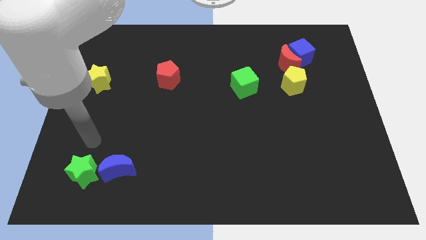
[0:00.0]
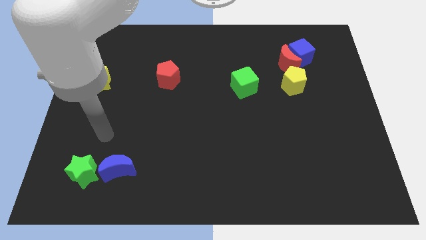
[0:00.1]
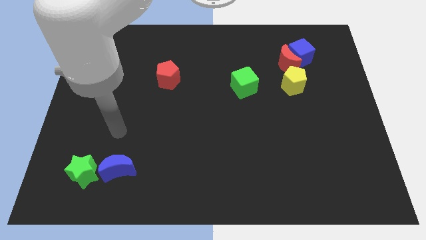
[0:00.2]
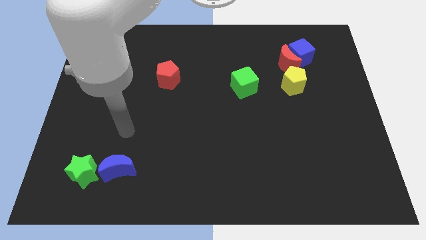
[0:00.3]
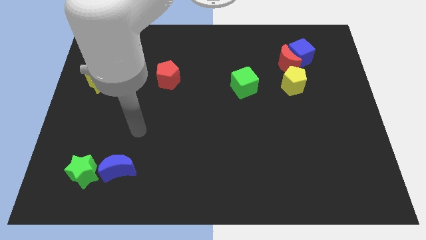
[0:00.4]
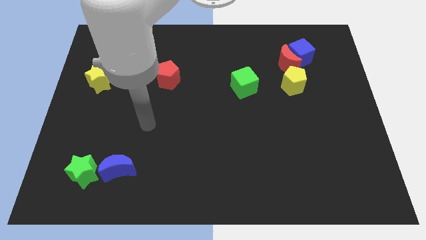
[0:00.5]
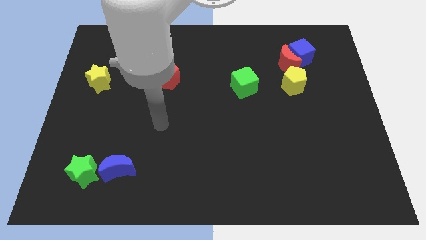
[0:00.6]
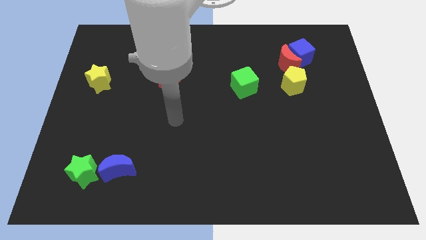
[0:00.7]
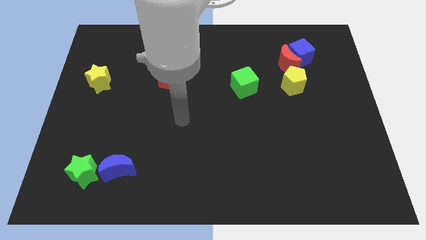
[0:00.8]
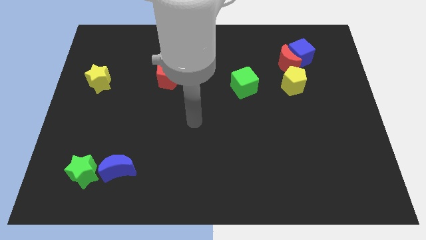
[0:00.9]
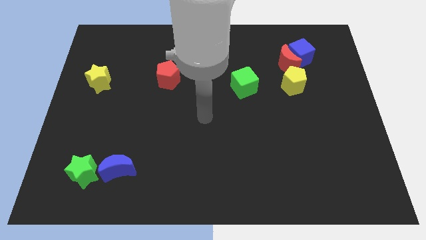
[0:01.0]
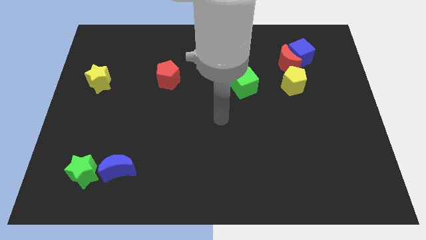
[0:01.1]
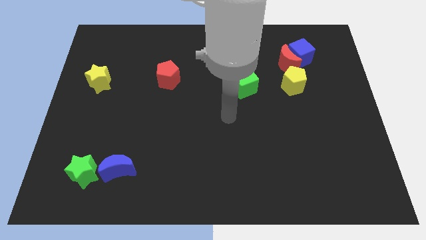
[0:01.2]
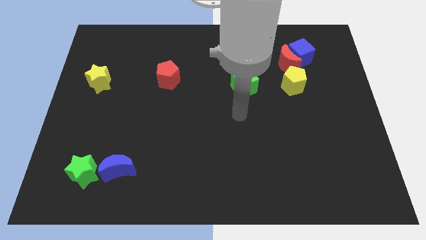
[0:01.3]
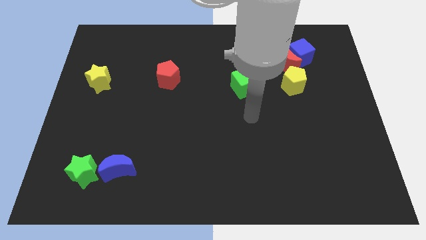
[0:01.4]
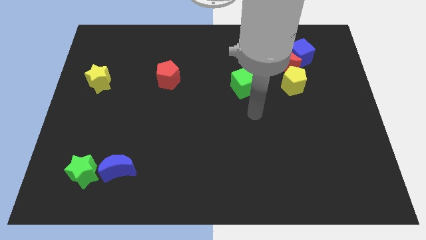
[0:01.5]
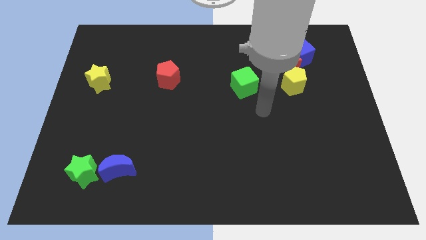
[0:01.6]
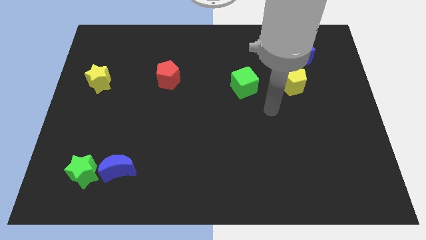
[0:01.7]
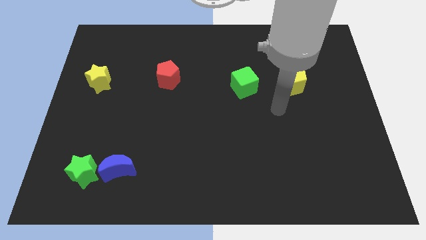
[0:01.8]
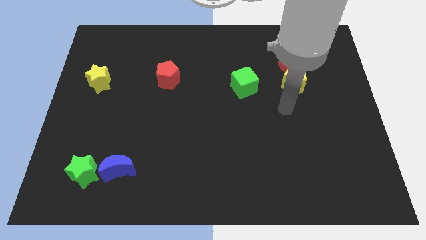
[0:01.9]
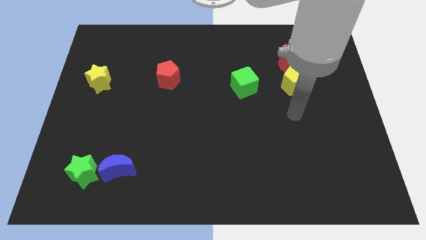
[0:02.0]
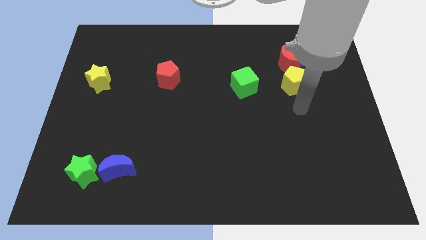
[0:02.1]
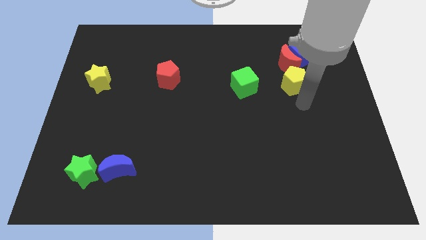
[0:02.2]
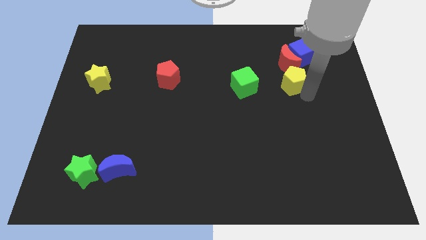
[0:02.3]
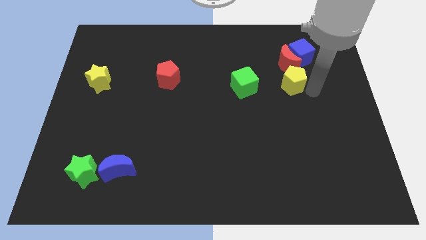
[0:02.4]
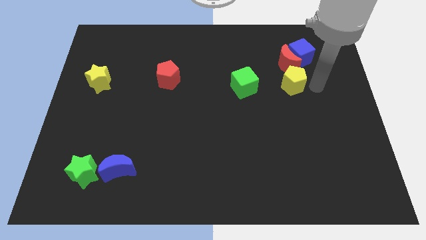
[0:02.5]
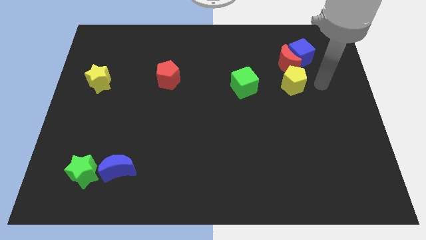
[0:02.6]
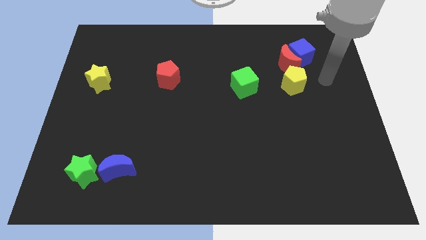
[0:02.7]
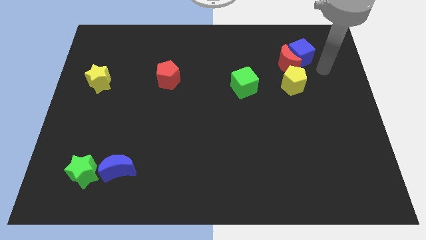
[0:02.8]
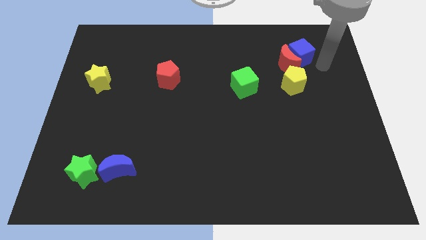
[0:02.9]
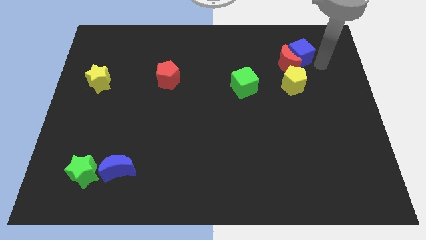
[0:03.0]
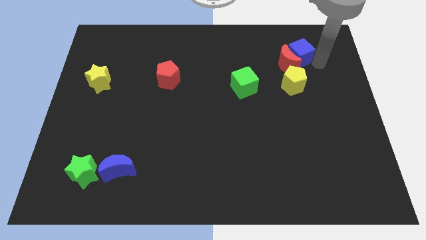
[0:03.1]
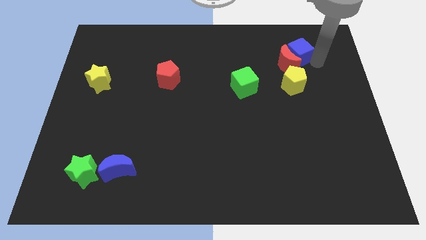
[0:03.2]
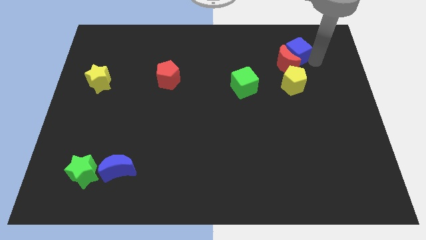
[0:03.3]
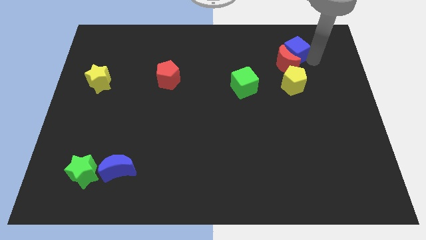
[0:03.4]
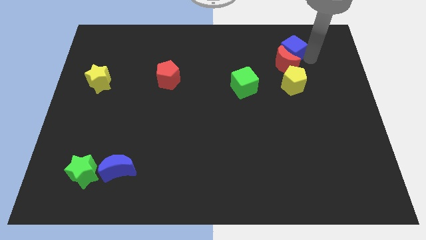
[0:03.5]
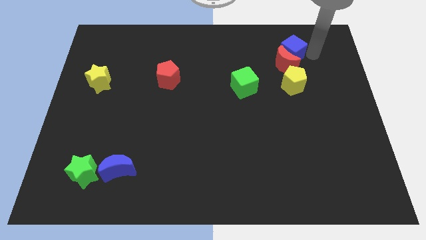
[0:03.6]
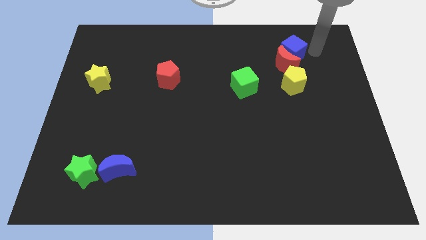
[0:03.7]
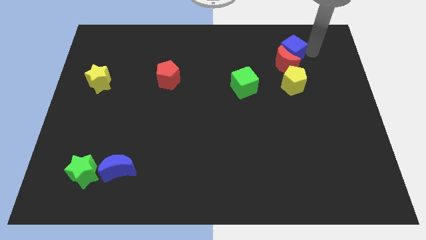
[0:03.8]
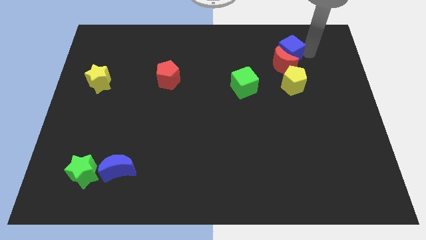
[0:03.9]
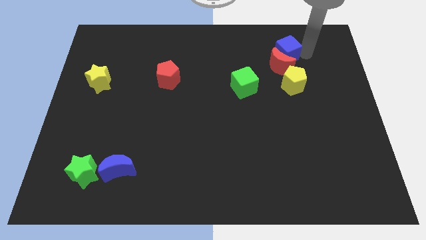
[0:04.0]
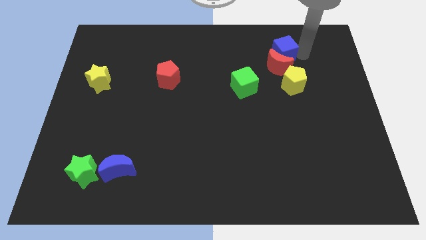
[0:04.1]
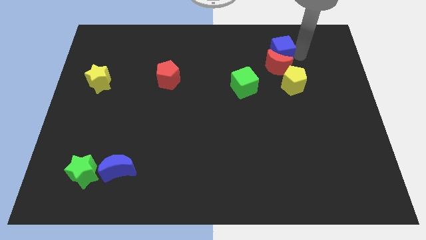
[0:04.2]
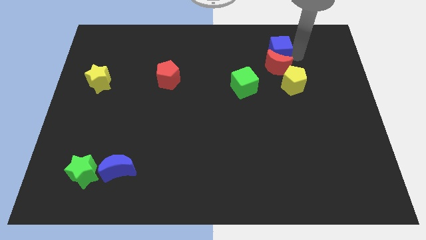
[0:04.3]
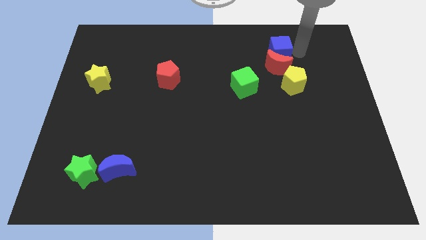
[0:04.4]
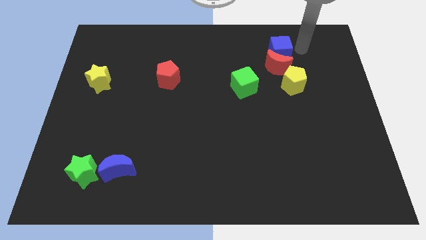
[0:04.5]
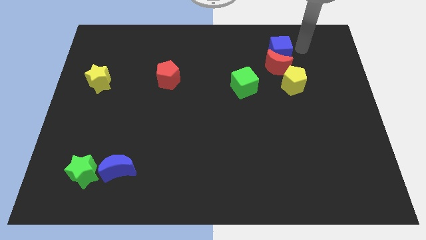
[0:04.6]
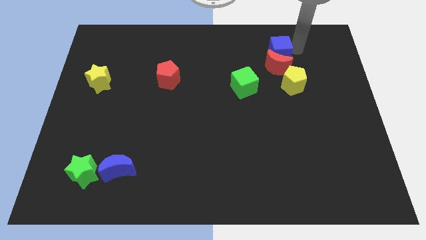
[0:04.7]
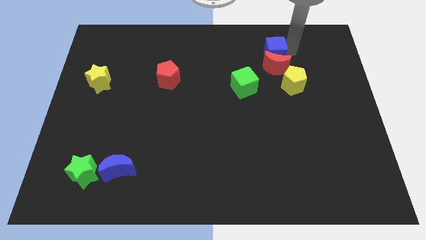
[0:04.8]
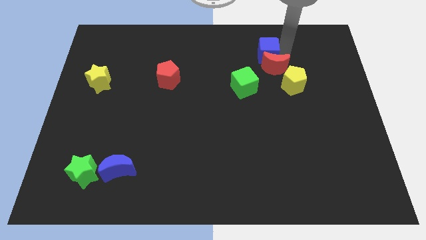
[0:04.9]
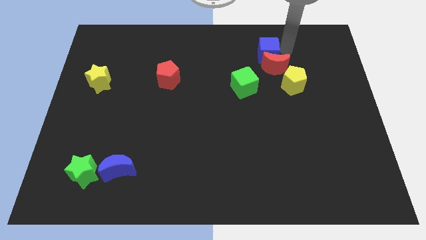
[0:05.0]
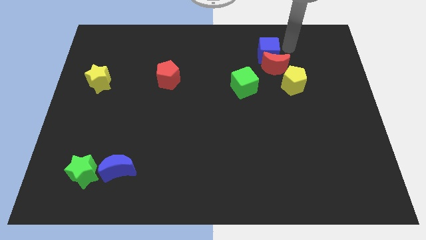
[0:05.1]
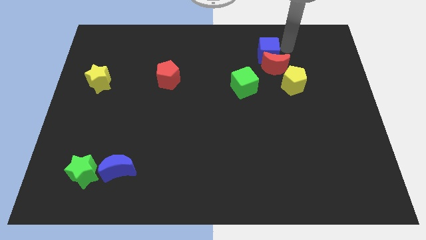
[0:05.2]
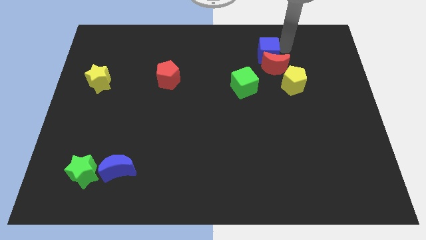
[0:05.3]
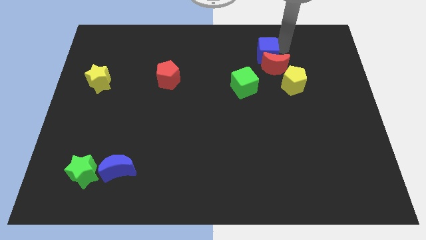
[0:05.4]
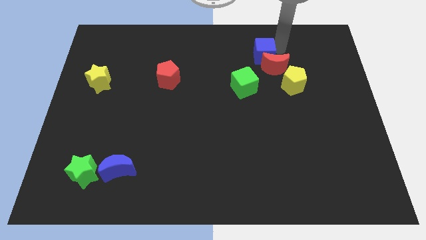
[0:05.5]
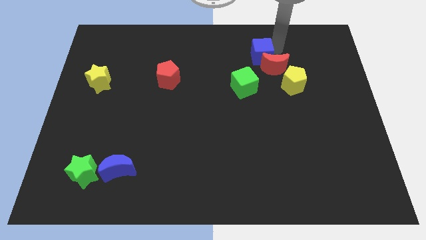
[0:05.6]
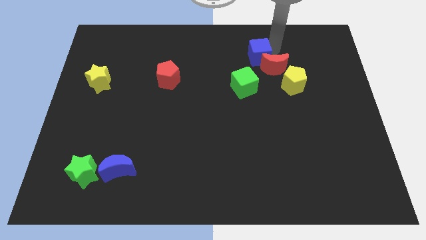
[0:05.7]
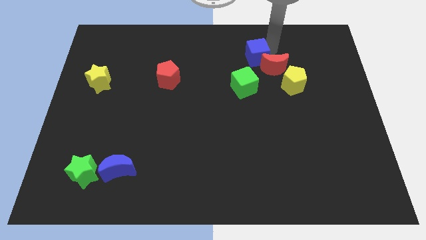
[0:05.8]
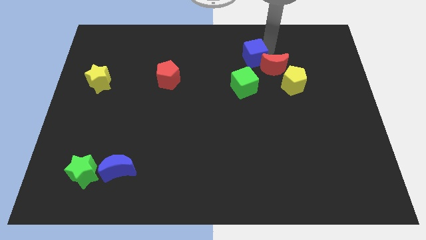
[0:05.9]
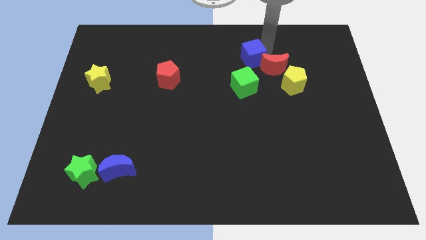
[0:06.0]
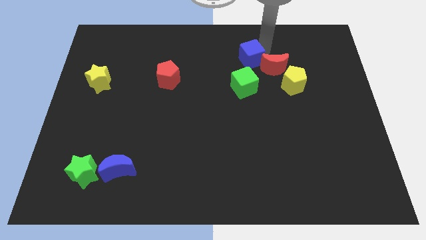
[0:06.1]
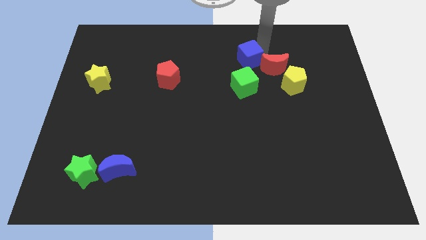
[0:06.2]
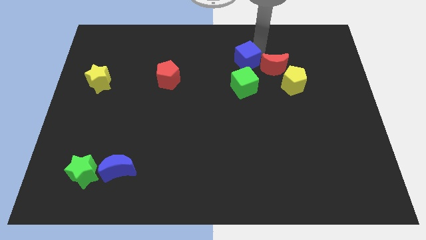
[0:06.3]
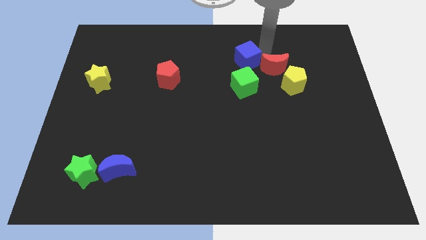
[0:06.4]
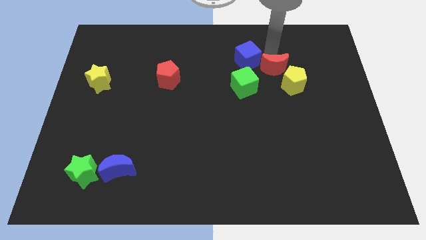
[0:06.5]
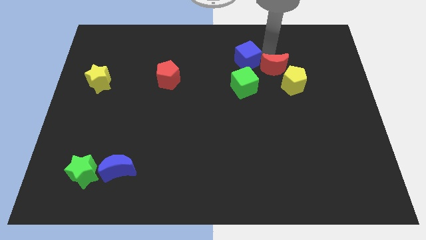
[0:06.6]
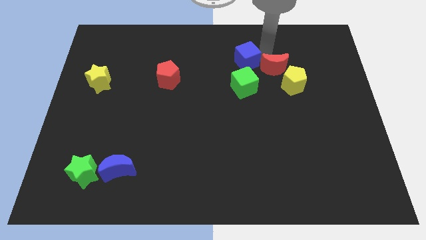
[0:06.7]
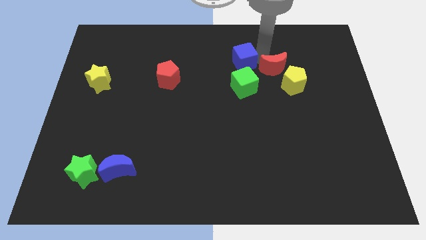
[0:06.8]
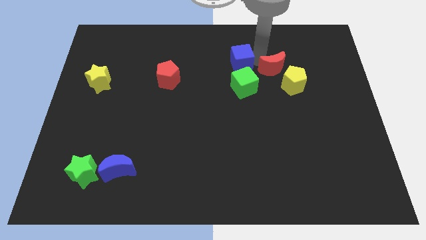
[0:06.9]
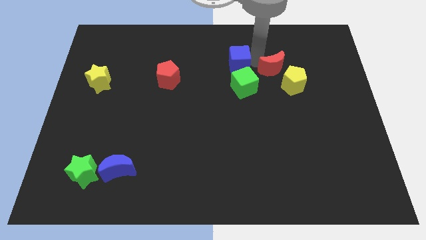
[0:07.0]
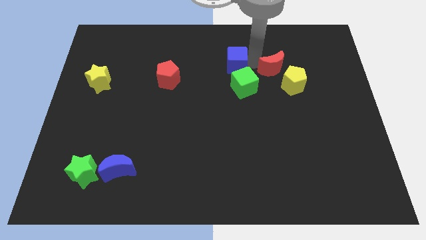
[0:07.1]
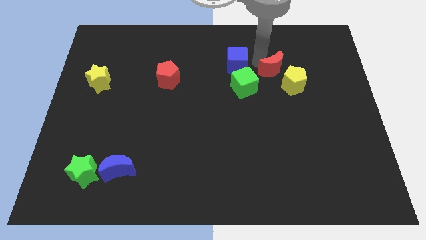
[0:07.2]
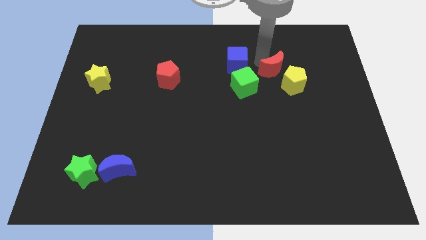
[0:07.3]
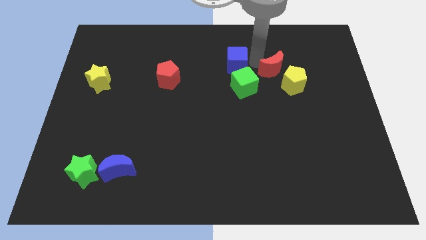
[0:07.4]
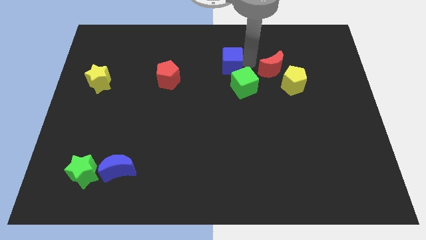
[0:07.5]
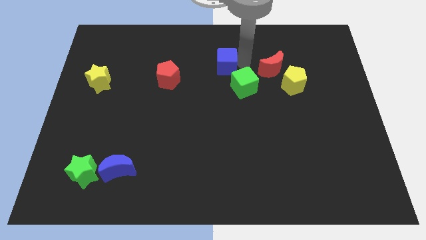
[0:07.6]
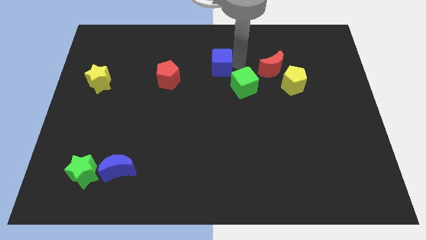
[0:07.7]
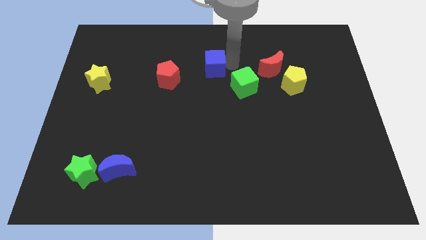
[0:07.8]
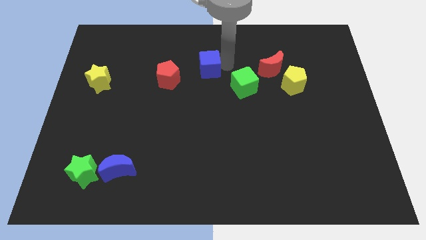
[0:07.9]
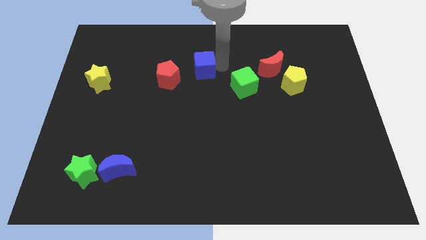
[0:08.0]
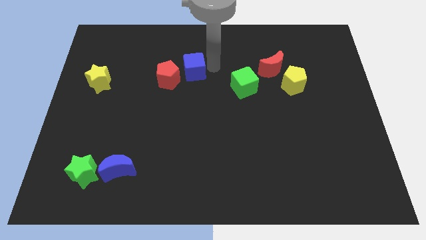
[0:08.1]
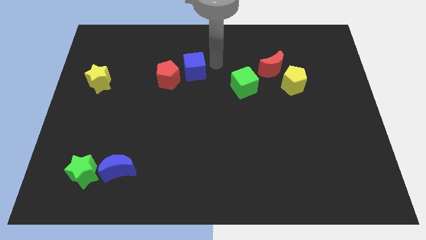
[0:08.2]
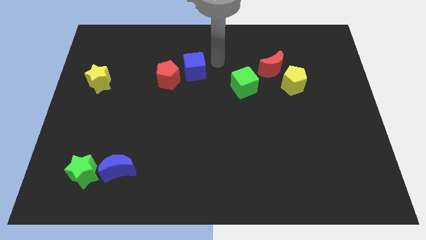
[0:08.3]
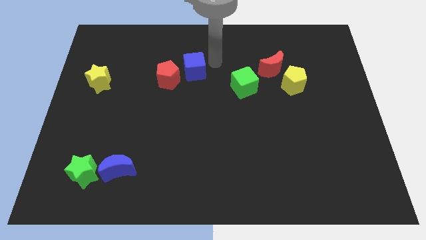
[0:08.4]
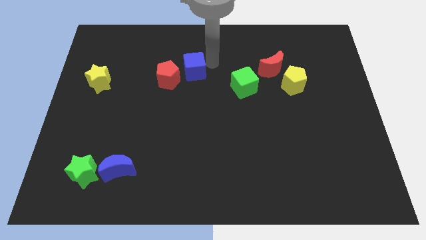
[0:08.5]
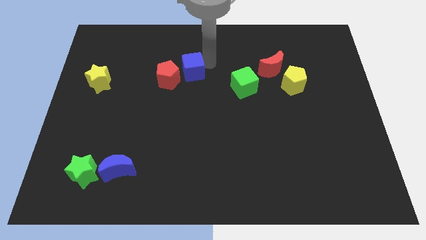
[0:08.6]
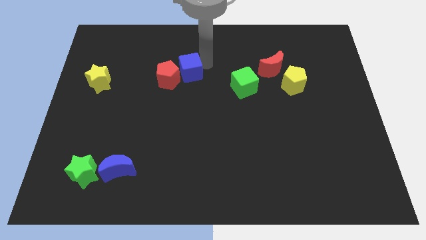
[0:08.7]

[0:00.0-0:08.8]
move the blue cube close to the red pentagon
